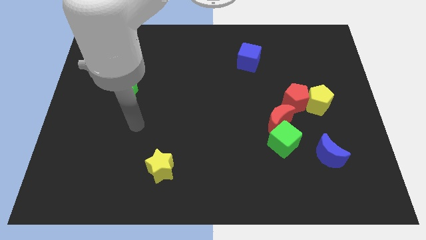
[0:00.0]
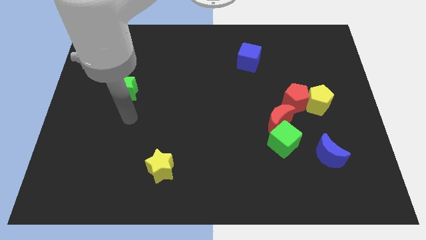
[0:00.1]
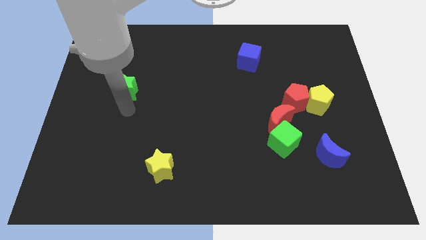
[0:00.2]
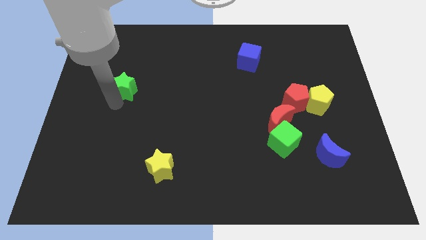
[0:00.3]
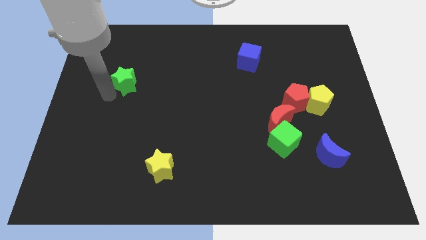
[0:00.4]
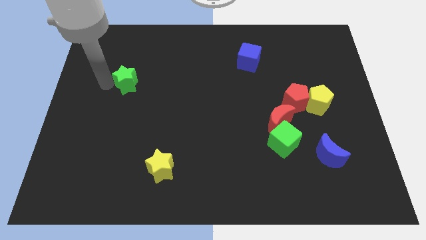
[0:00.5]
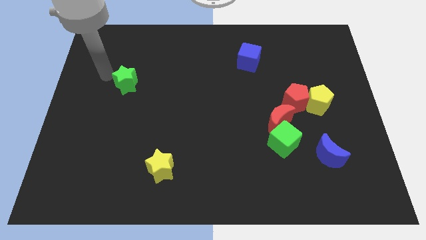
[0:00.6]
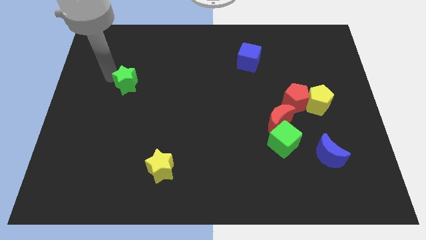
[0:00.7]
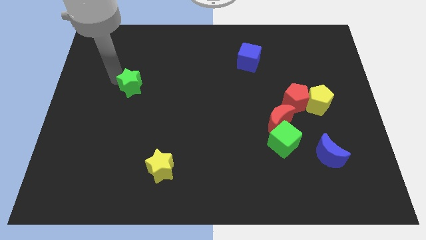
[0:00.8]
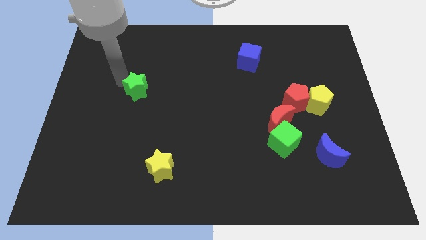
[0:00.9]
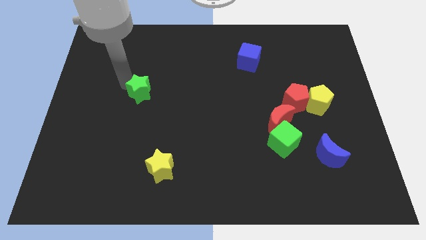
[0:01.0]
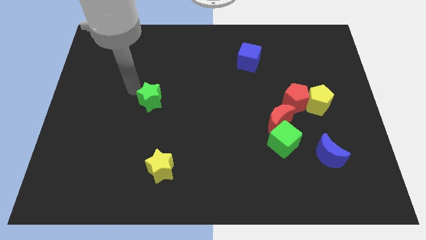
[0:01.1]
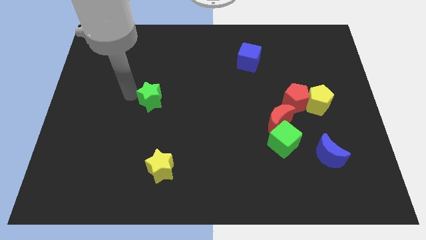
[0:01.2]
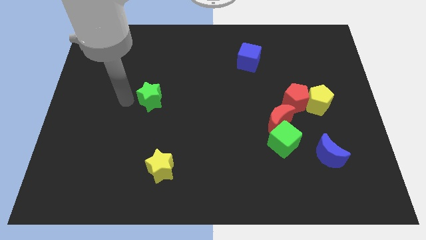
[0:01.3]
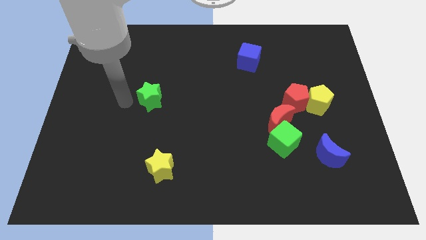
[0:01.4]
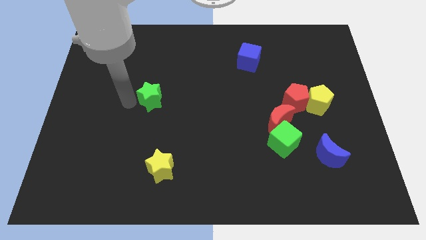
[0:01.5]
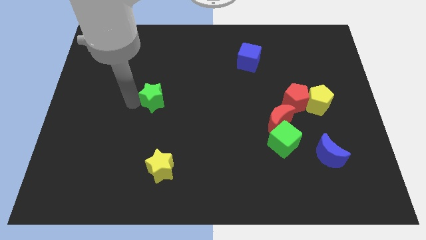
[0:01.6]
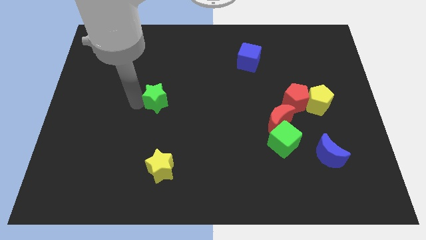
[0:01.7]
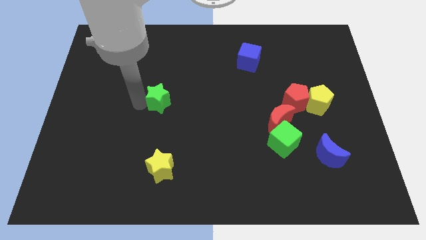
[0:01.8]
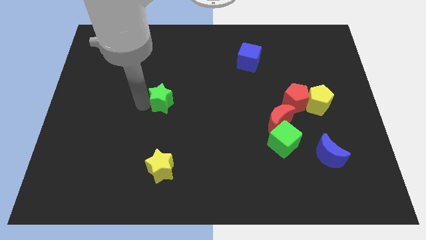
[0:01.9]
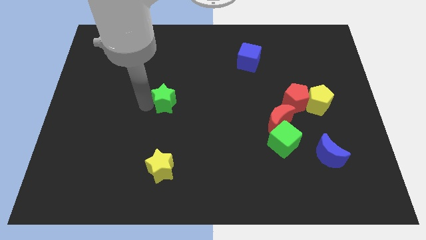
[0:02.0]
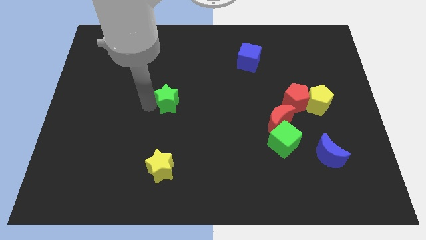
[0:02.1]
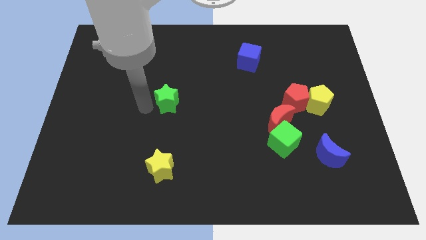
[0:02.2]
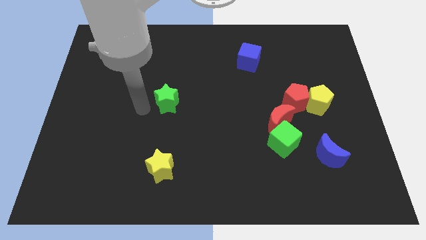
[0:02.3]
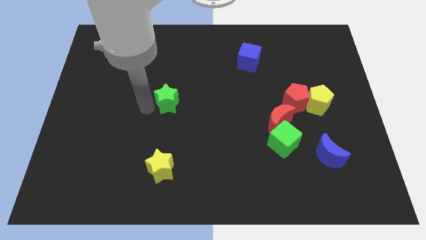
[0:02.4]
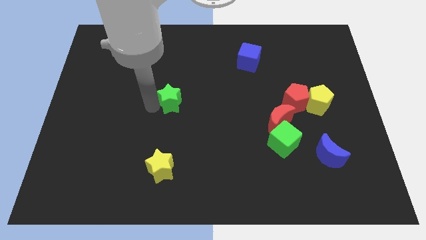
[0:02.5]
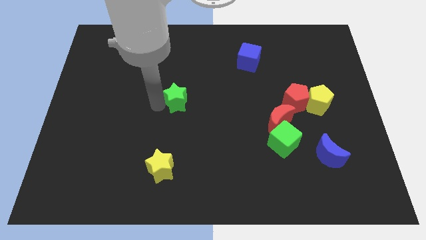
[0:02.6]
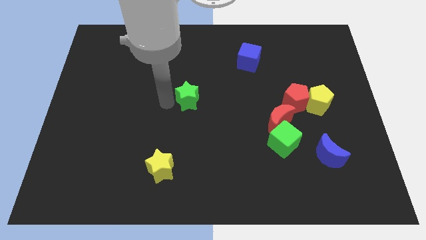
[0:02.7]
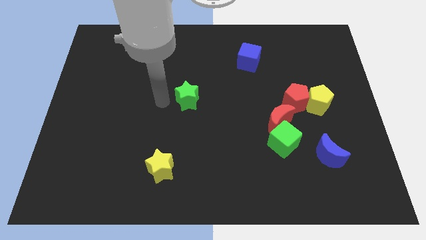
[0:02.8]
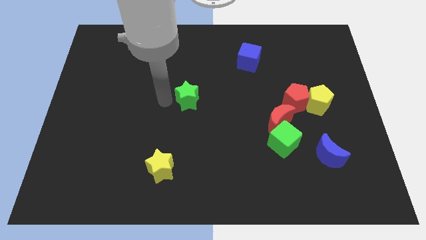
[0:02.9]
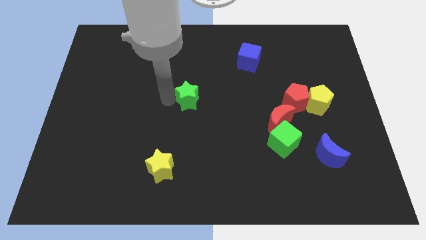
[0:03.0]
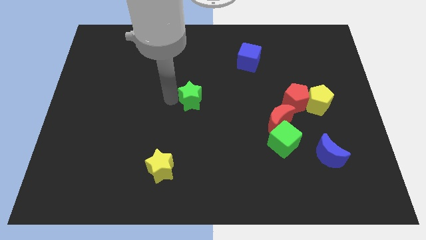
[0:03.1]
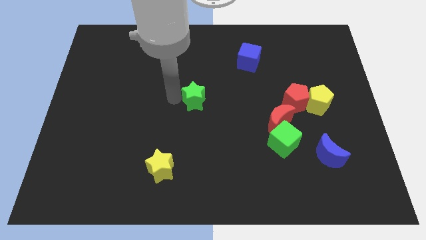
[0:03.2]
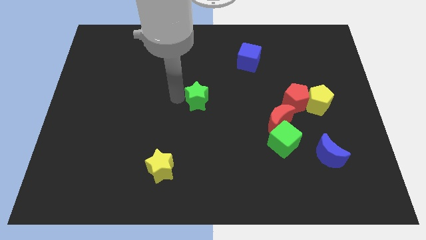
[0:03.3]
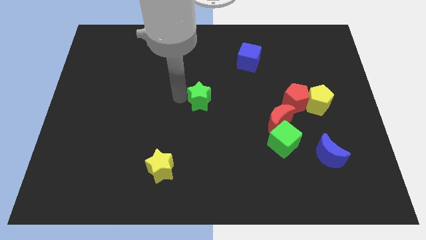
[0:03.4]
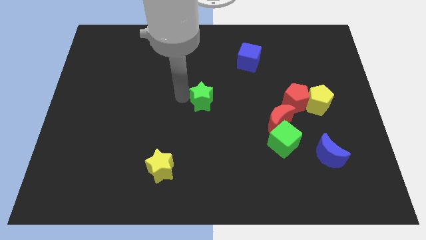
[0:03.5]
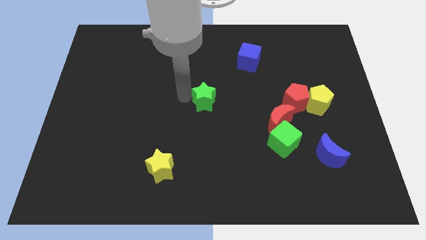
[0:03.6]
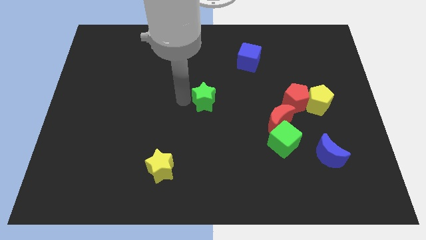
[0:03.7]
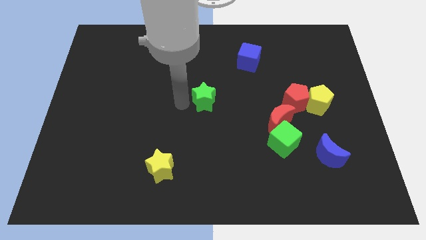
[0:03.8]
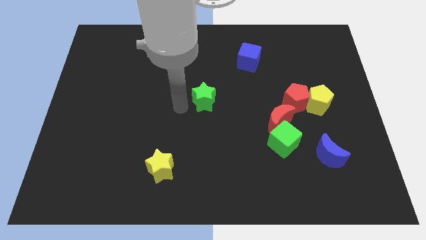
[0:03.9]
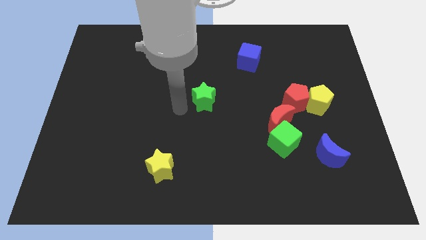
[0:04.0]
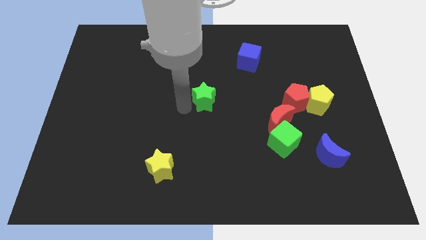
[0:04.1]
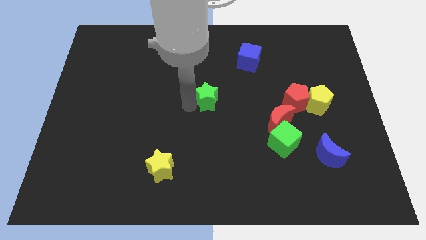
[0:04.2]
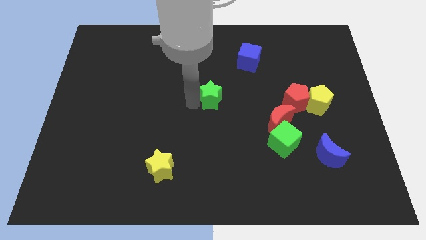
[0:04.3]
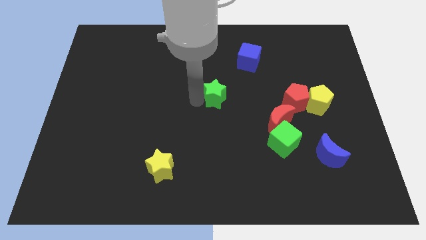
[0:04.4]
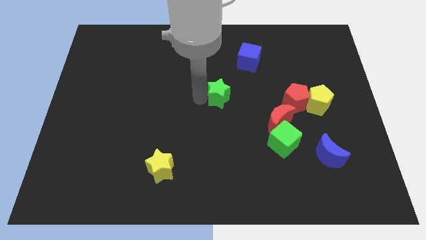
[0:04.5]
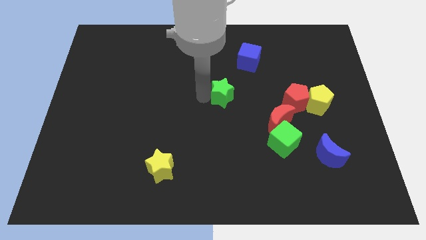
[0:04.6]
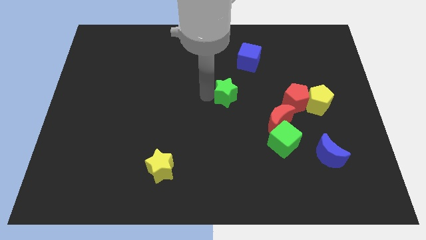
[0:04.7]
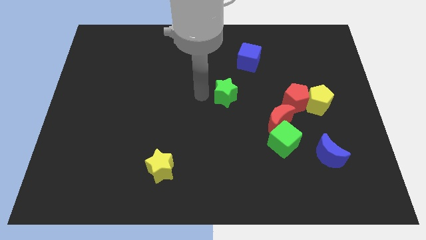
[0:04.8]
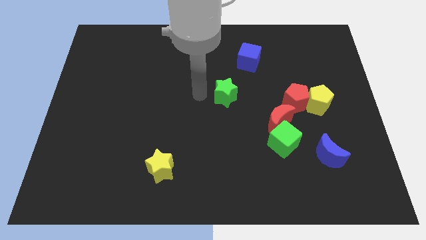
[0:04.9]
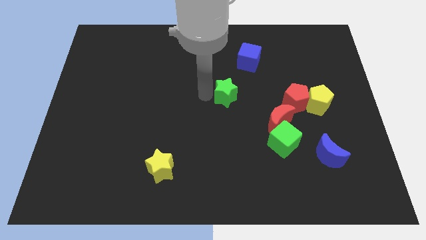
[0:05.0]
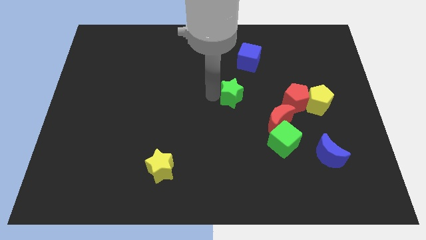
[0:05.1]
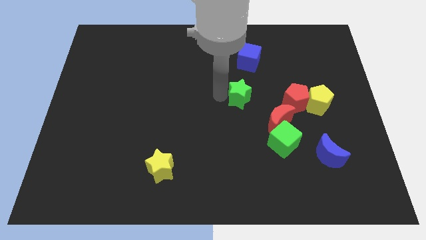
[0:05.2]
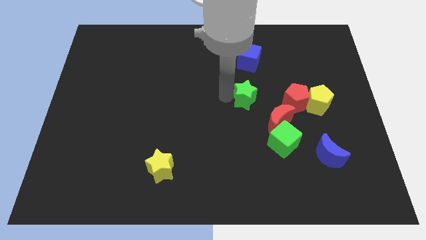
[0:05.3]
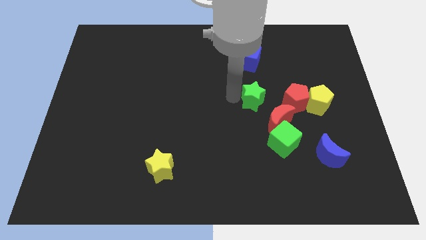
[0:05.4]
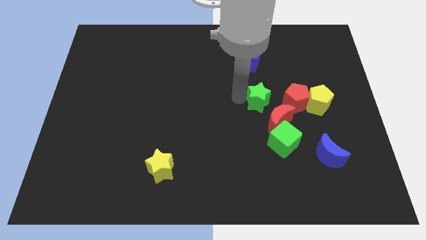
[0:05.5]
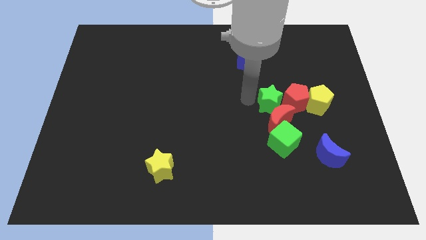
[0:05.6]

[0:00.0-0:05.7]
push the green star next to the red pentagon

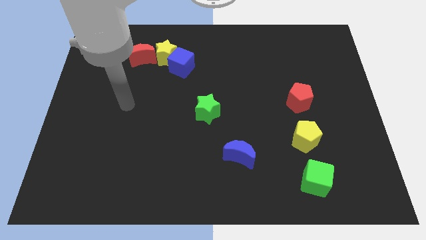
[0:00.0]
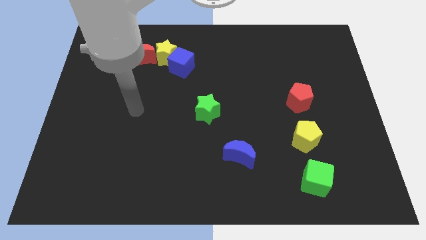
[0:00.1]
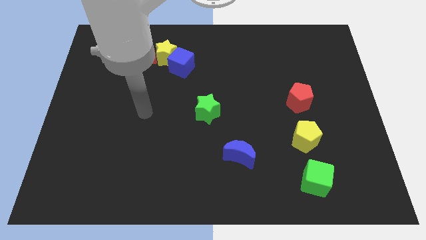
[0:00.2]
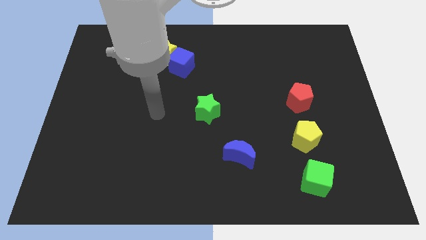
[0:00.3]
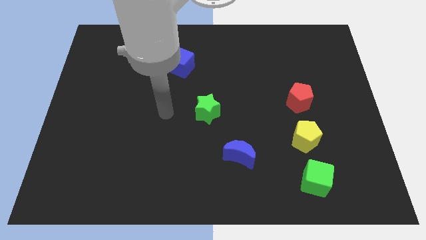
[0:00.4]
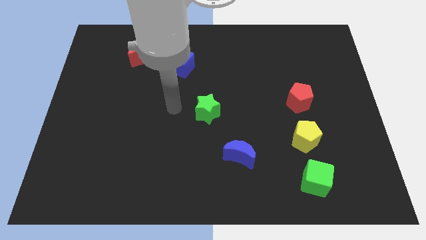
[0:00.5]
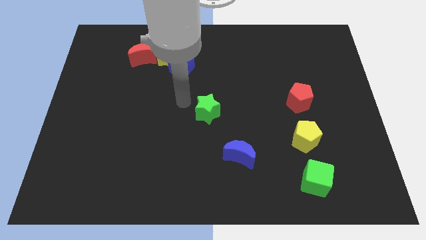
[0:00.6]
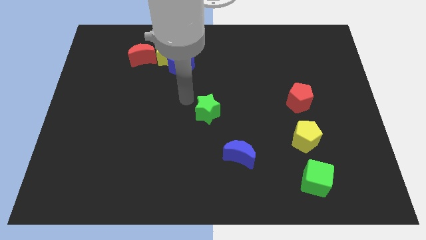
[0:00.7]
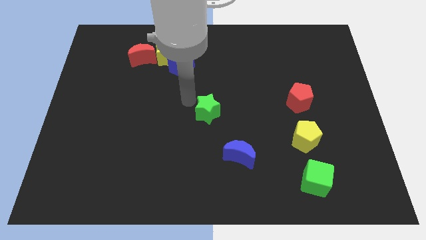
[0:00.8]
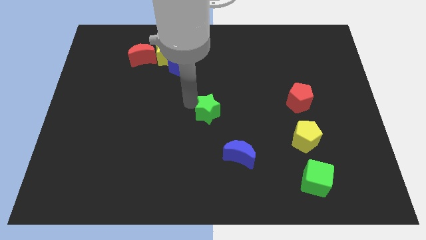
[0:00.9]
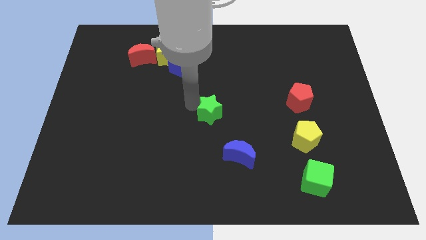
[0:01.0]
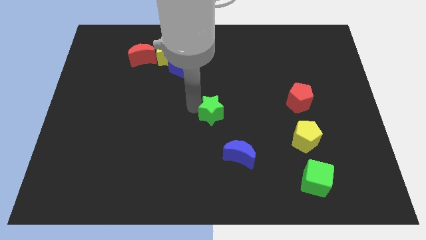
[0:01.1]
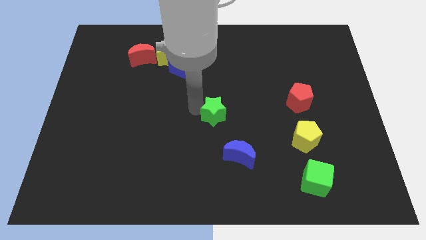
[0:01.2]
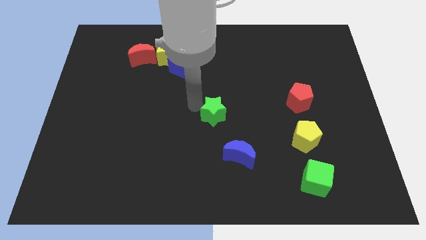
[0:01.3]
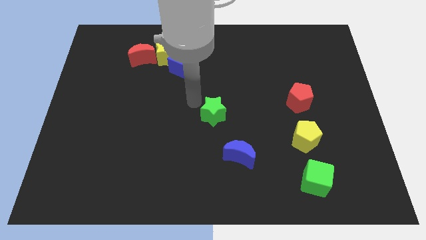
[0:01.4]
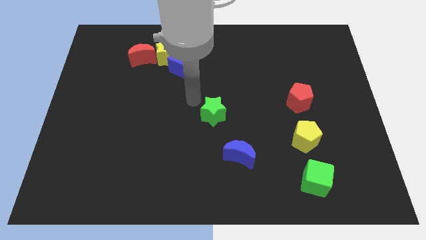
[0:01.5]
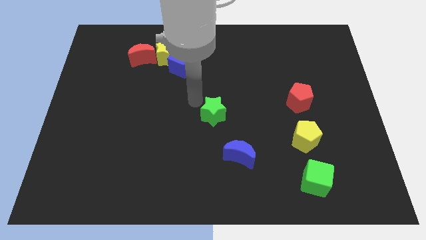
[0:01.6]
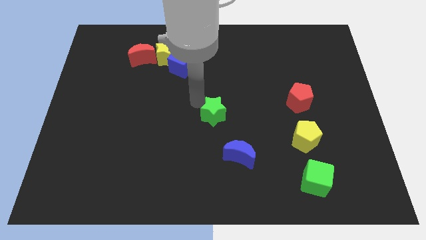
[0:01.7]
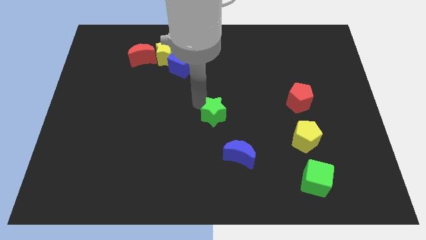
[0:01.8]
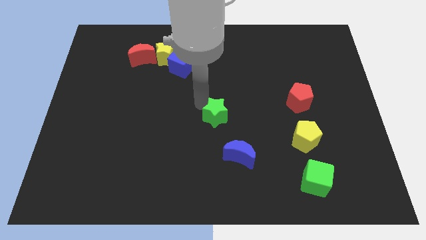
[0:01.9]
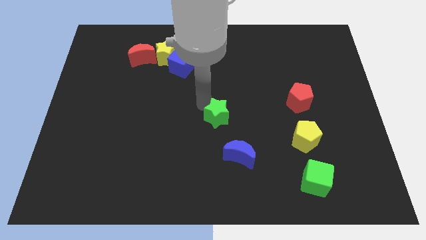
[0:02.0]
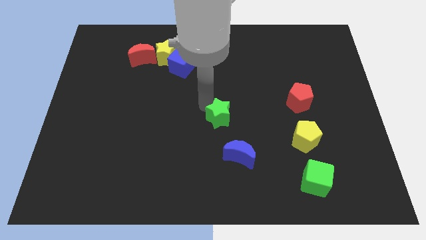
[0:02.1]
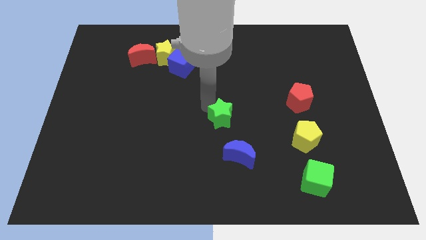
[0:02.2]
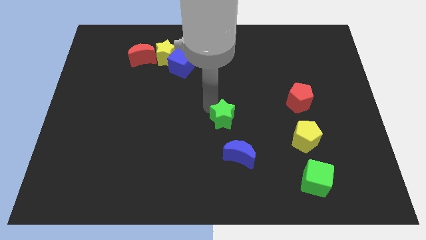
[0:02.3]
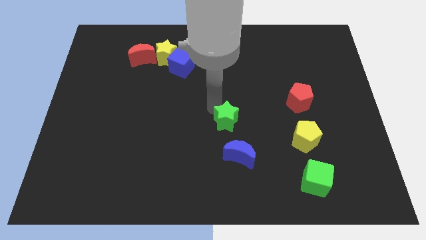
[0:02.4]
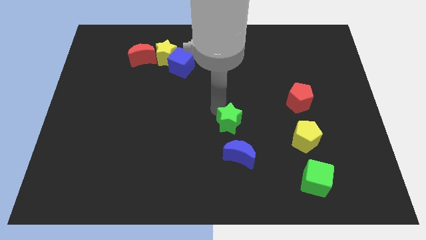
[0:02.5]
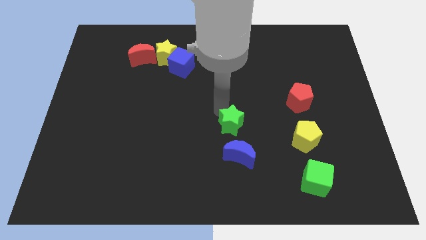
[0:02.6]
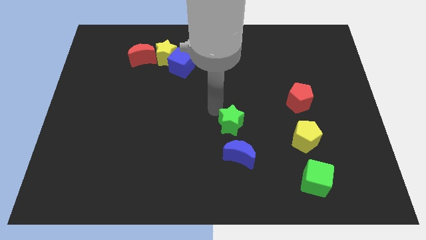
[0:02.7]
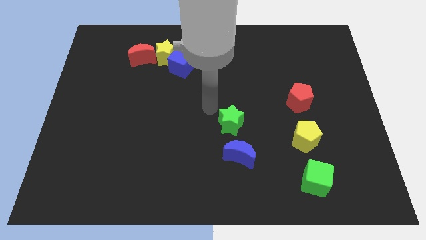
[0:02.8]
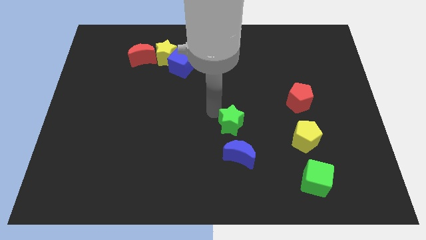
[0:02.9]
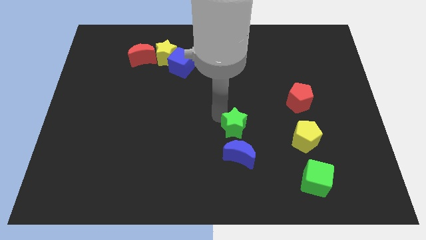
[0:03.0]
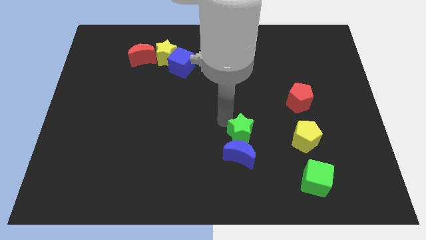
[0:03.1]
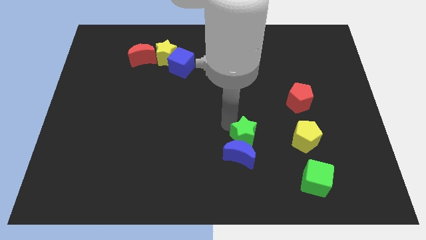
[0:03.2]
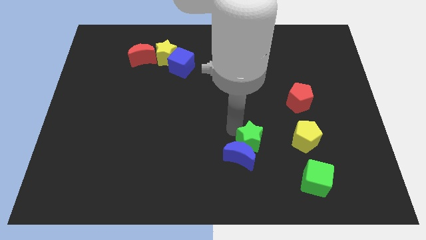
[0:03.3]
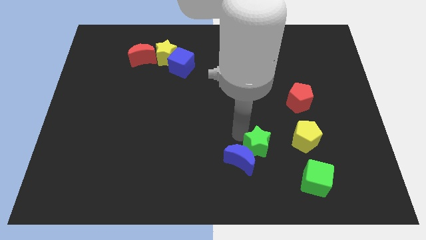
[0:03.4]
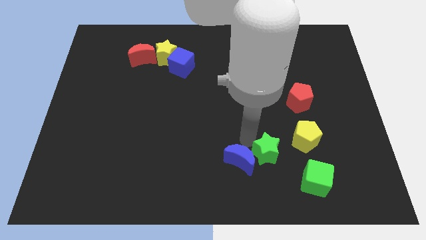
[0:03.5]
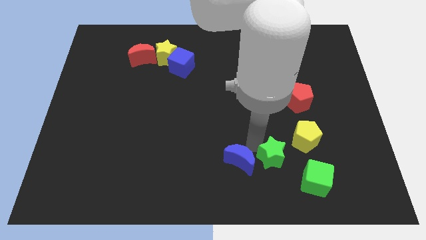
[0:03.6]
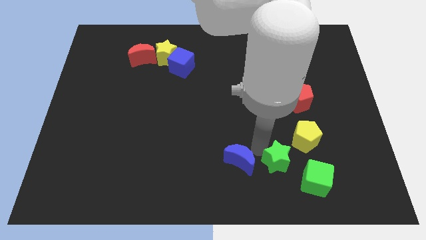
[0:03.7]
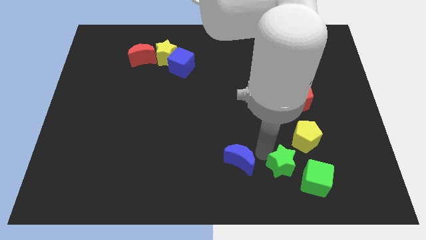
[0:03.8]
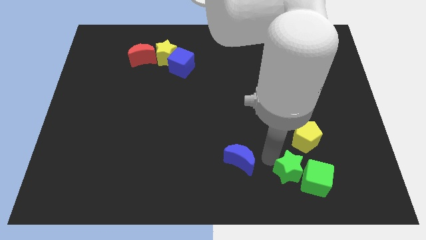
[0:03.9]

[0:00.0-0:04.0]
put the green star towards the green cube
